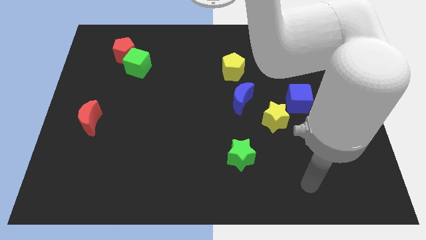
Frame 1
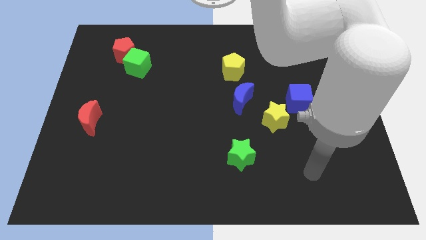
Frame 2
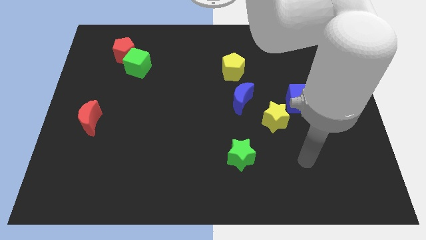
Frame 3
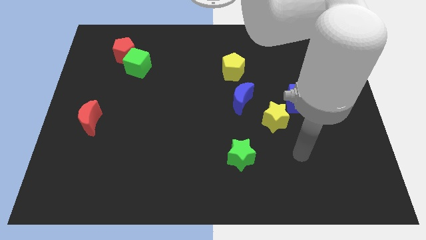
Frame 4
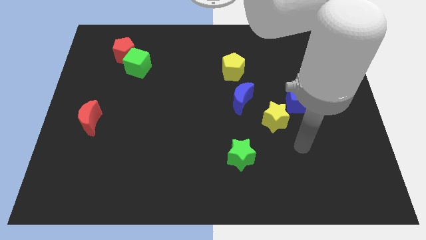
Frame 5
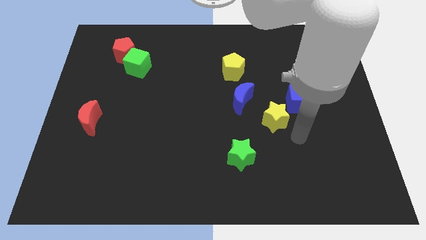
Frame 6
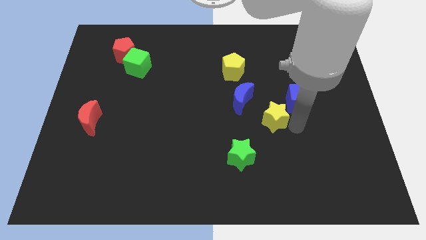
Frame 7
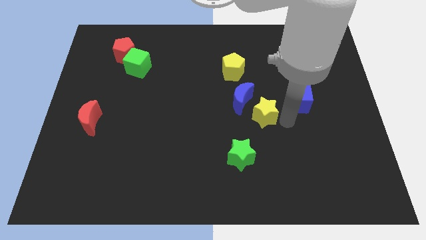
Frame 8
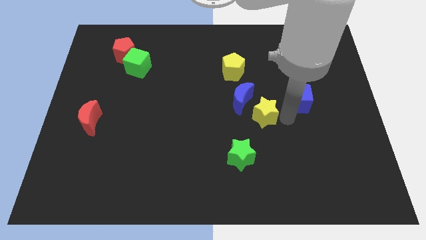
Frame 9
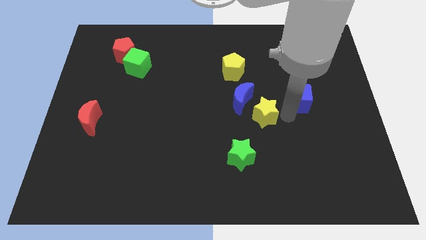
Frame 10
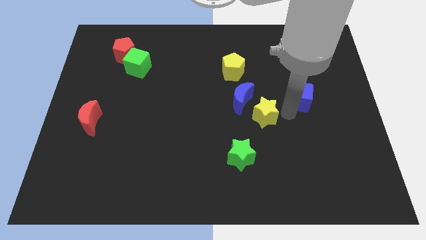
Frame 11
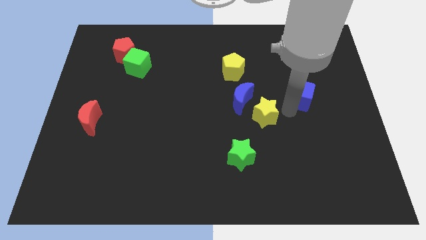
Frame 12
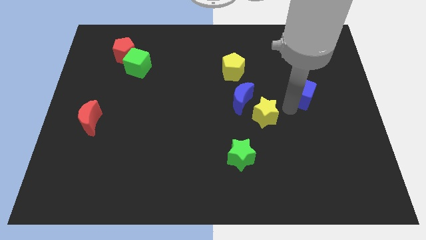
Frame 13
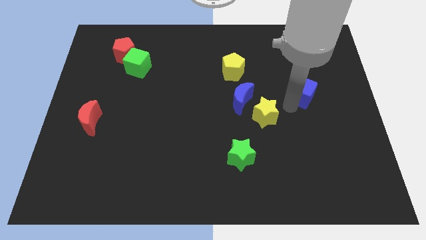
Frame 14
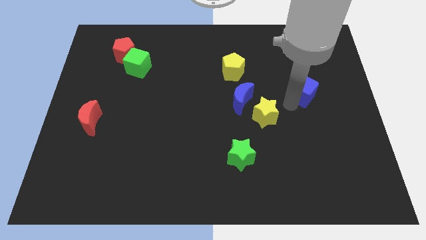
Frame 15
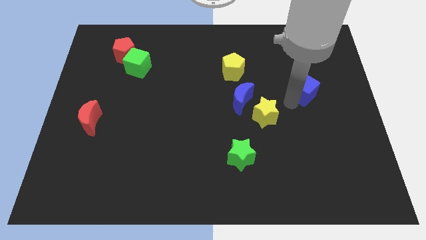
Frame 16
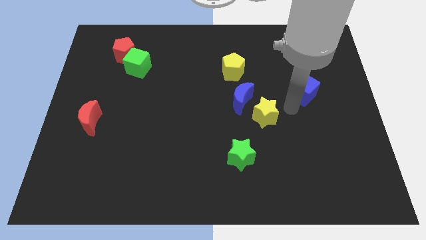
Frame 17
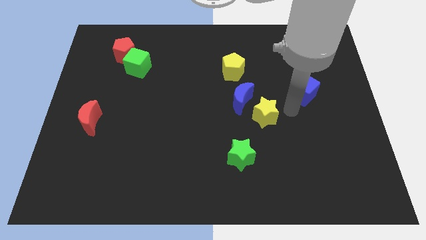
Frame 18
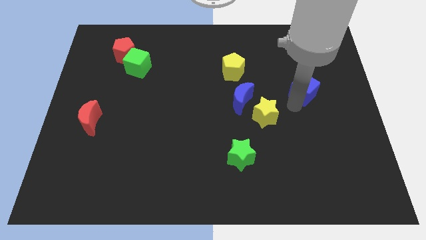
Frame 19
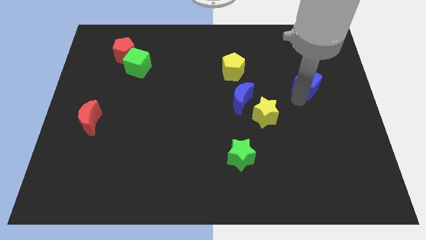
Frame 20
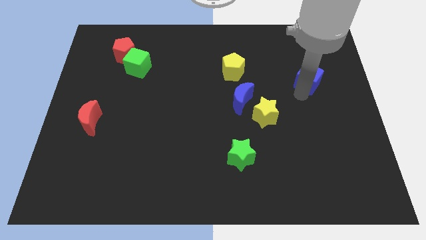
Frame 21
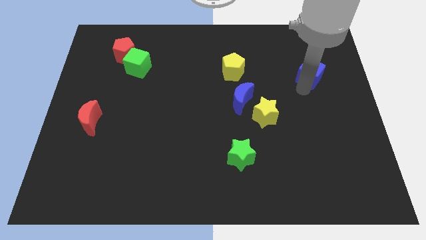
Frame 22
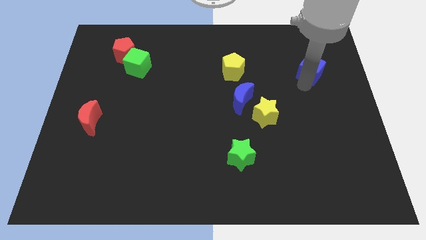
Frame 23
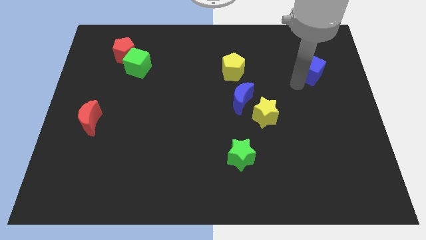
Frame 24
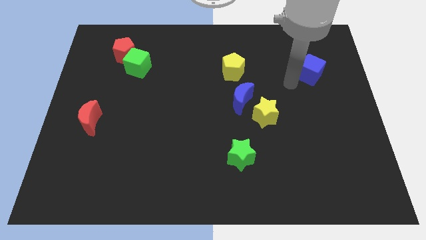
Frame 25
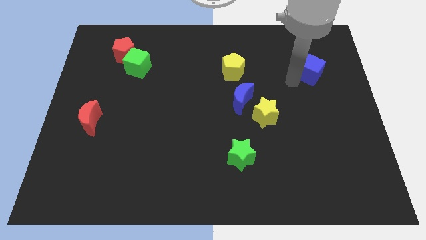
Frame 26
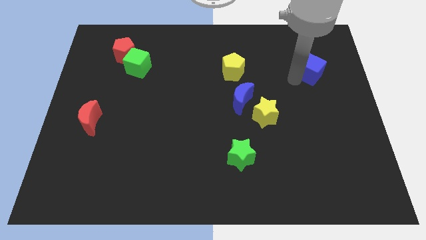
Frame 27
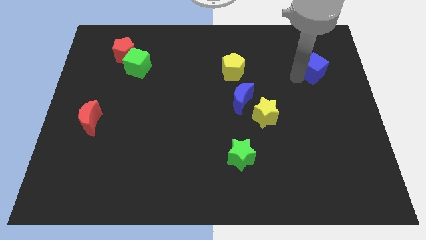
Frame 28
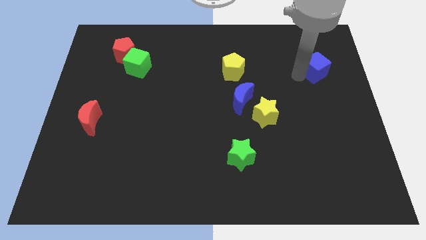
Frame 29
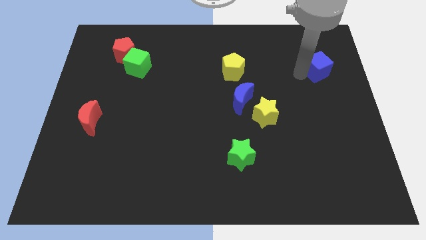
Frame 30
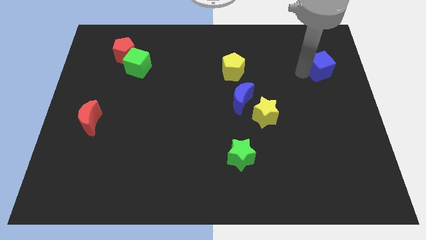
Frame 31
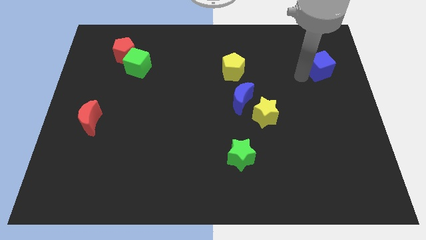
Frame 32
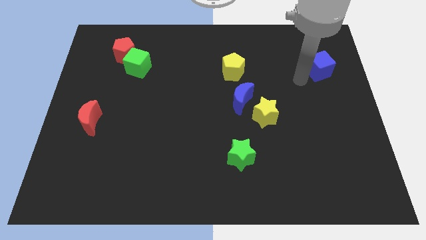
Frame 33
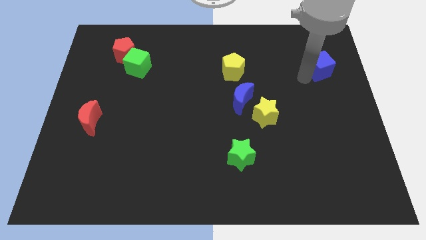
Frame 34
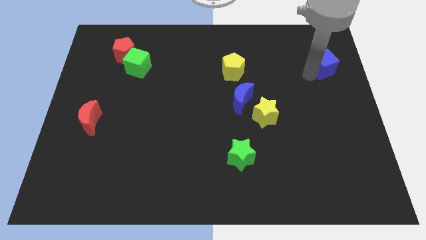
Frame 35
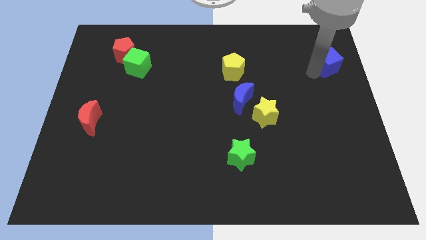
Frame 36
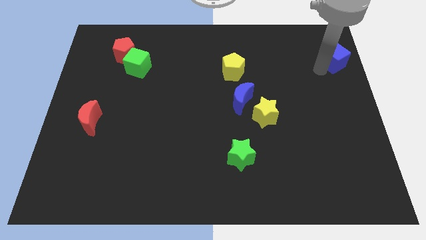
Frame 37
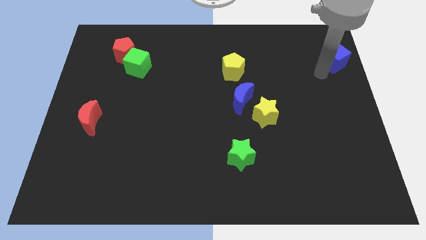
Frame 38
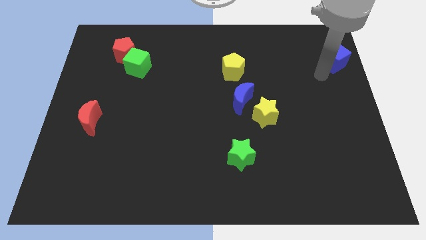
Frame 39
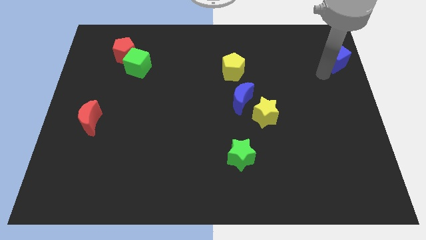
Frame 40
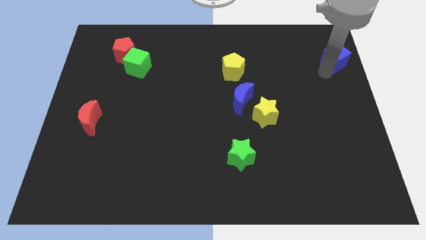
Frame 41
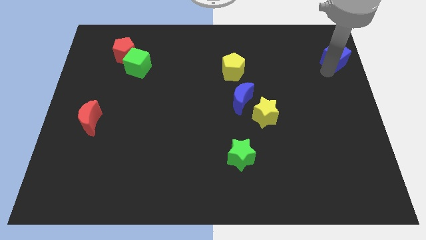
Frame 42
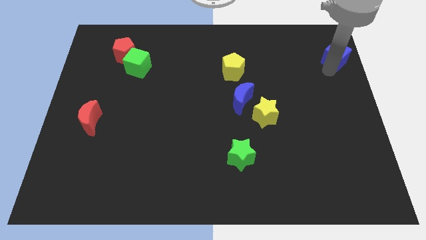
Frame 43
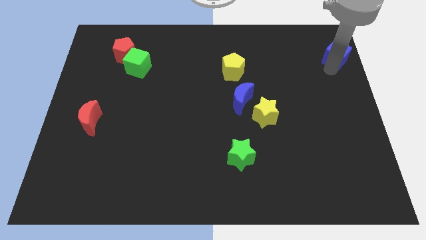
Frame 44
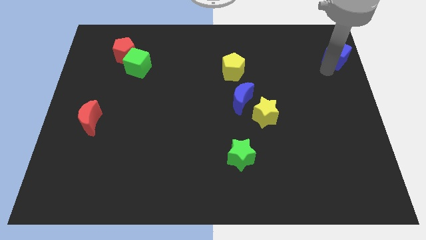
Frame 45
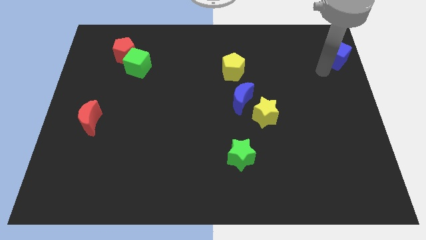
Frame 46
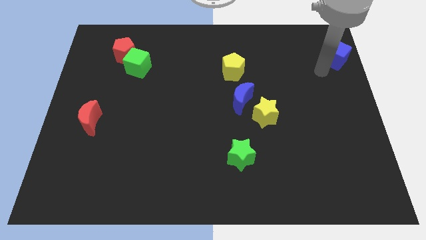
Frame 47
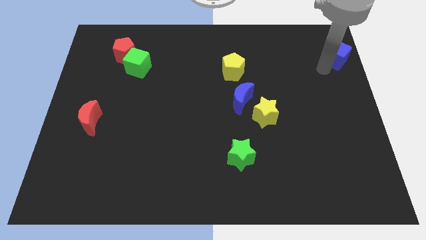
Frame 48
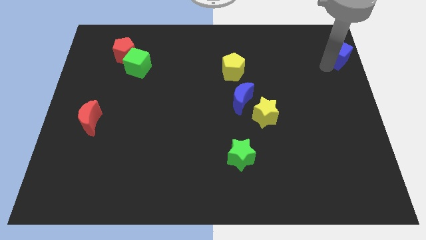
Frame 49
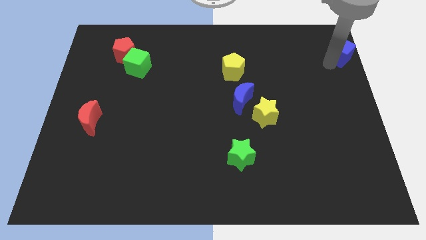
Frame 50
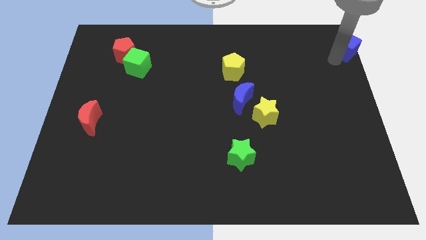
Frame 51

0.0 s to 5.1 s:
move the blue cube to the top right corner
